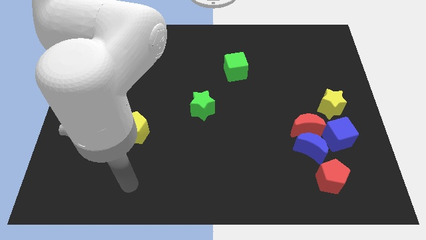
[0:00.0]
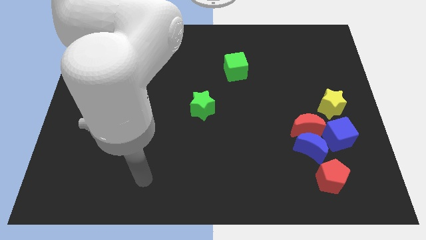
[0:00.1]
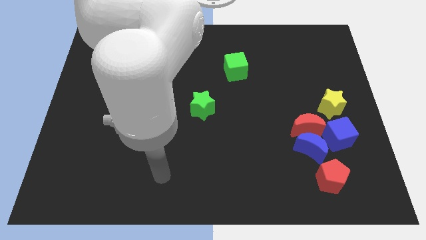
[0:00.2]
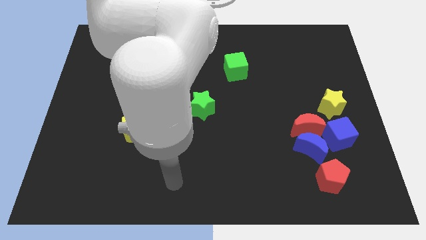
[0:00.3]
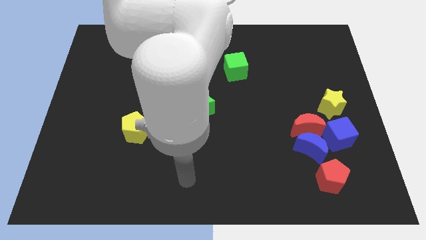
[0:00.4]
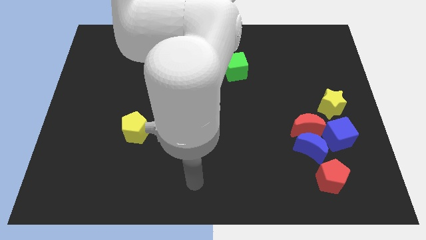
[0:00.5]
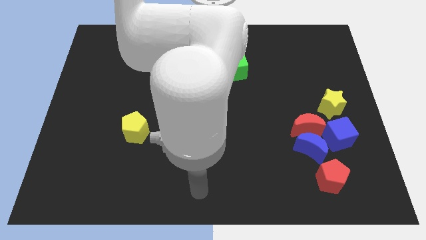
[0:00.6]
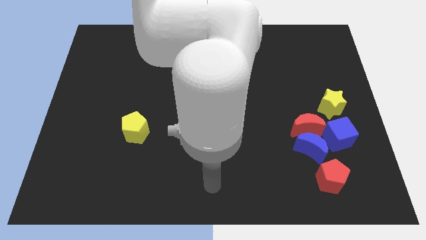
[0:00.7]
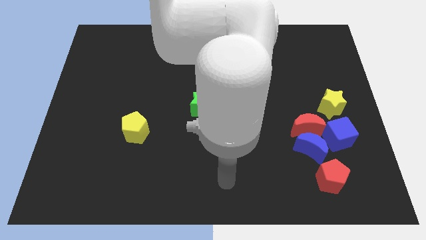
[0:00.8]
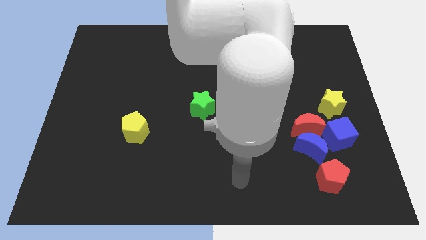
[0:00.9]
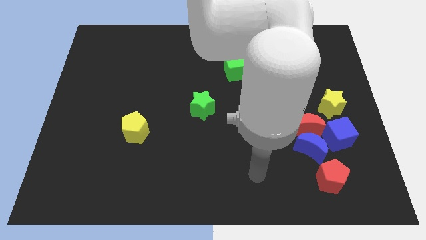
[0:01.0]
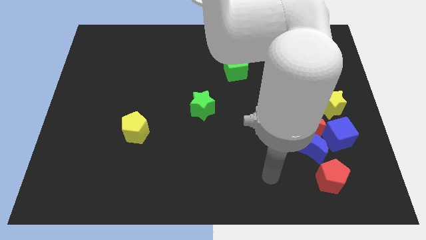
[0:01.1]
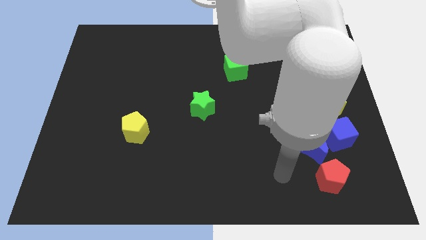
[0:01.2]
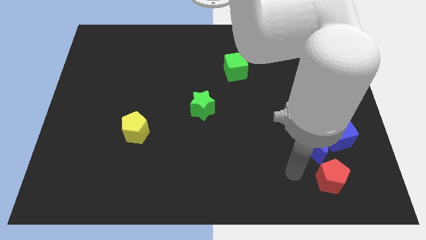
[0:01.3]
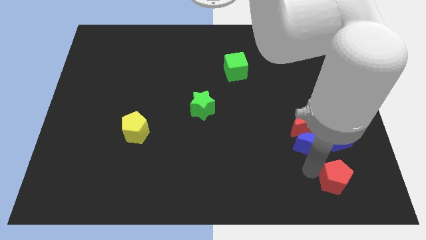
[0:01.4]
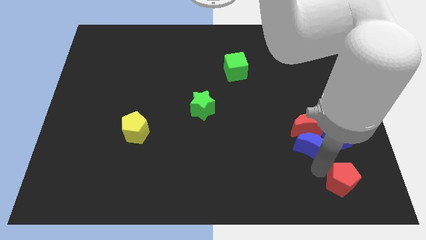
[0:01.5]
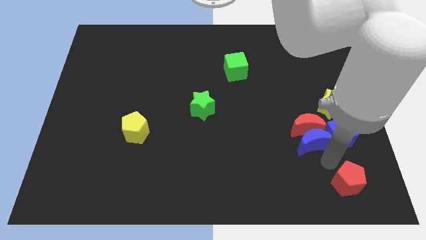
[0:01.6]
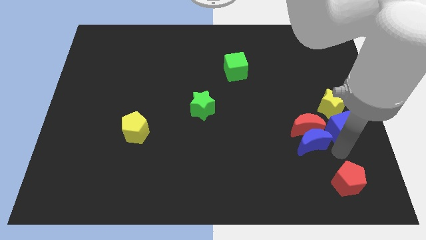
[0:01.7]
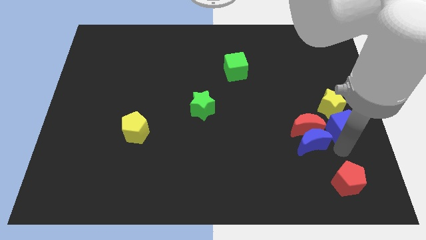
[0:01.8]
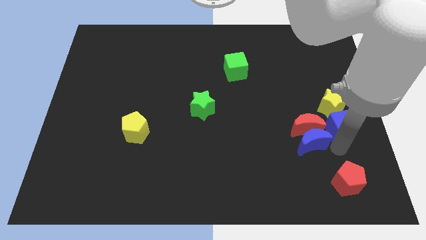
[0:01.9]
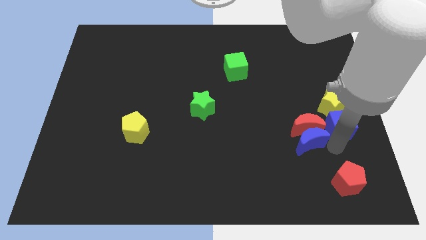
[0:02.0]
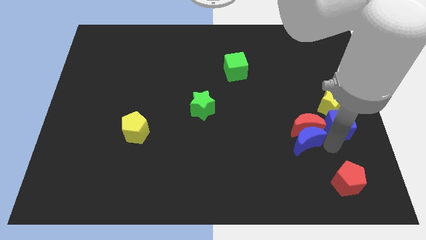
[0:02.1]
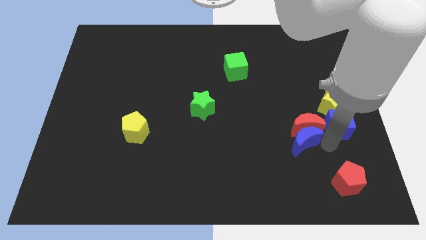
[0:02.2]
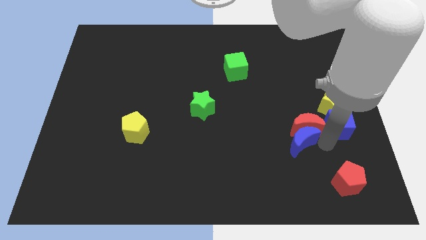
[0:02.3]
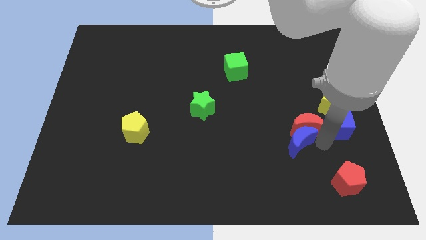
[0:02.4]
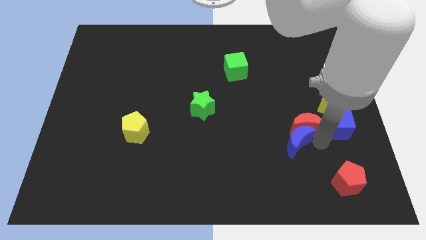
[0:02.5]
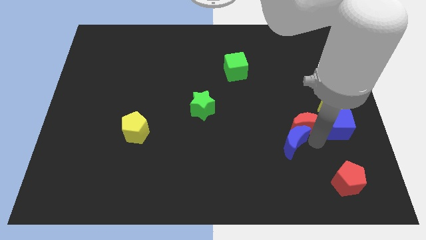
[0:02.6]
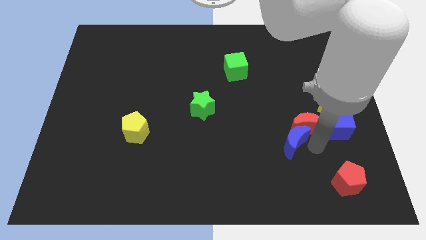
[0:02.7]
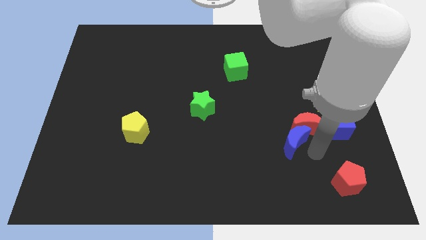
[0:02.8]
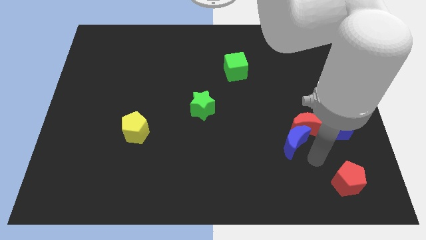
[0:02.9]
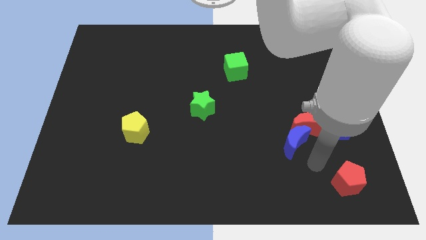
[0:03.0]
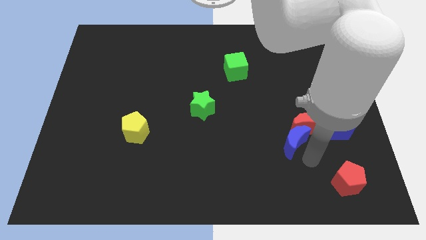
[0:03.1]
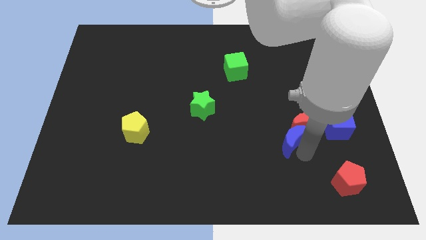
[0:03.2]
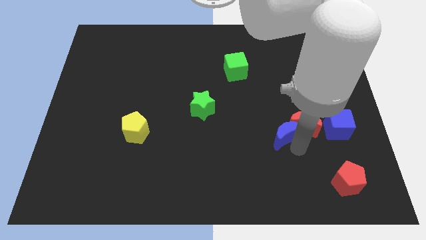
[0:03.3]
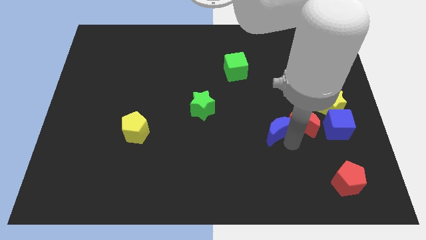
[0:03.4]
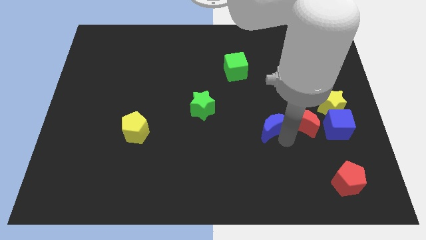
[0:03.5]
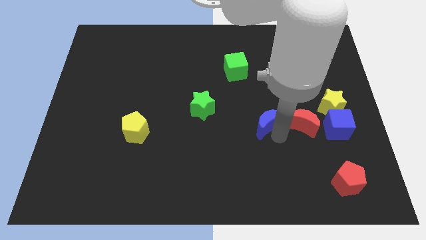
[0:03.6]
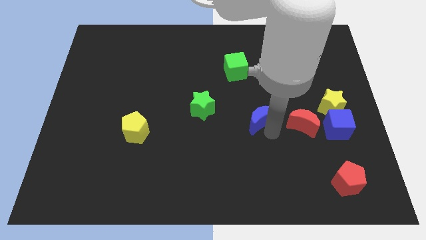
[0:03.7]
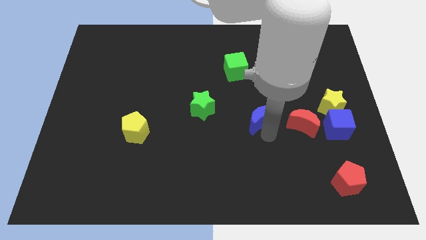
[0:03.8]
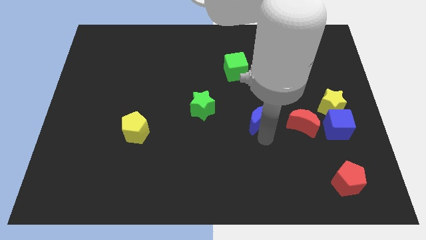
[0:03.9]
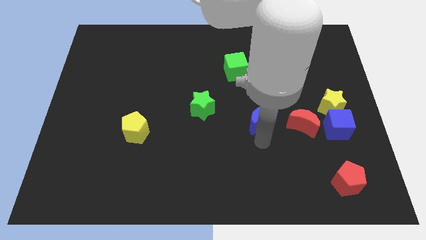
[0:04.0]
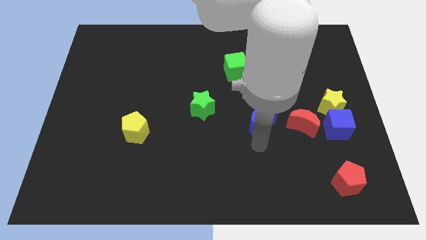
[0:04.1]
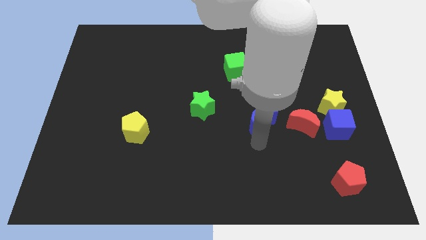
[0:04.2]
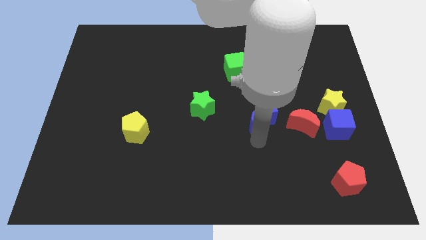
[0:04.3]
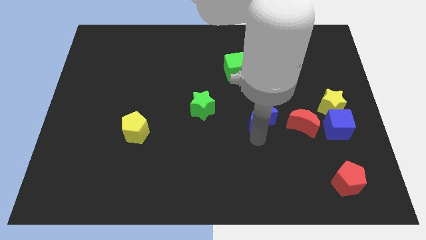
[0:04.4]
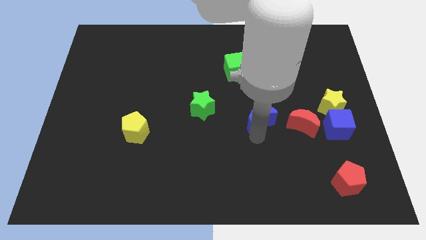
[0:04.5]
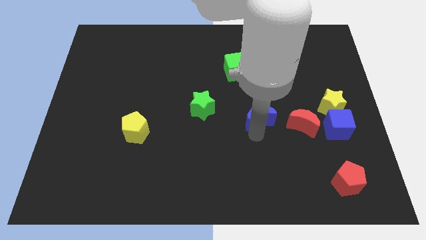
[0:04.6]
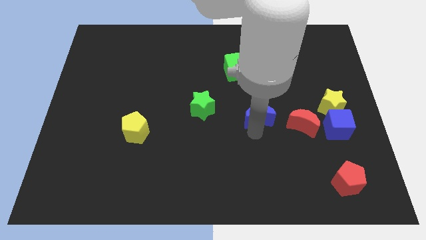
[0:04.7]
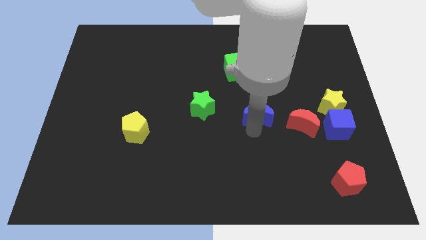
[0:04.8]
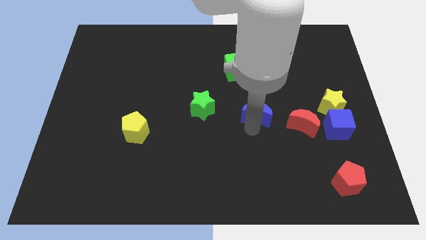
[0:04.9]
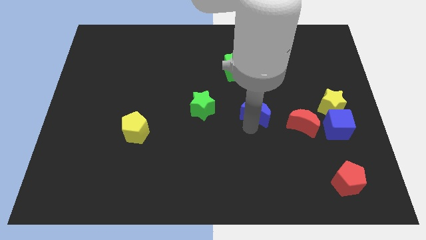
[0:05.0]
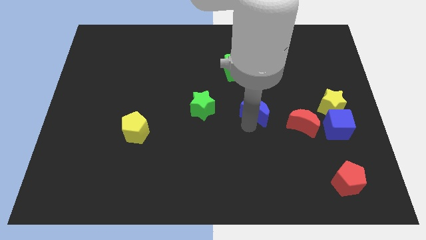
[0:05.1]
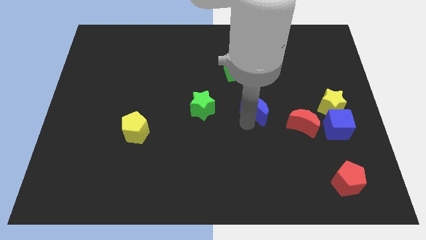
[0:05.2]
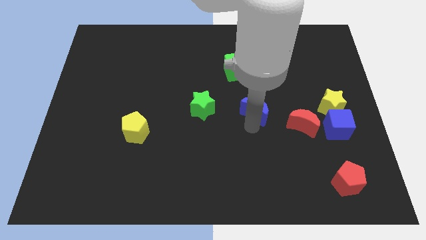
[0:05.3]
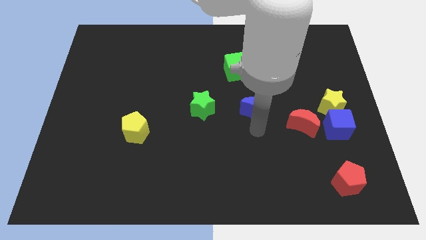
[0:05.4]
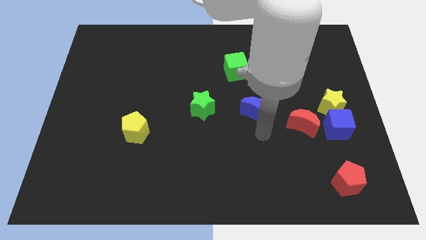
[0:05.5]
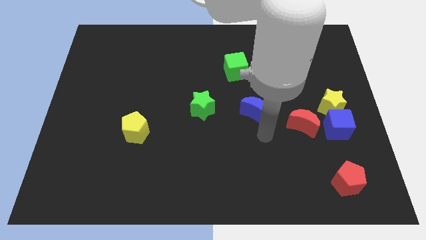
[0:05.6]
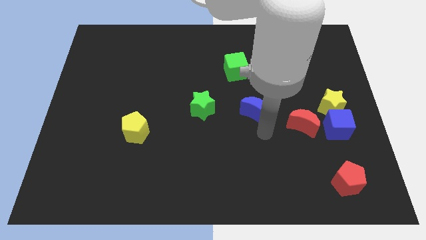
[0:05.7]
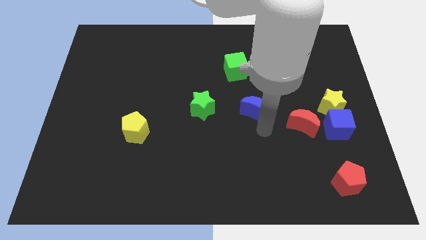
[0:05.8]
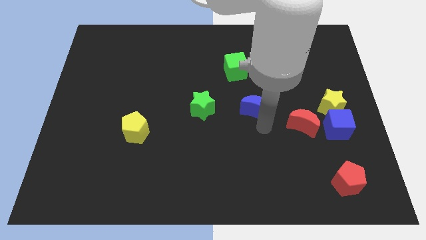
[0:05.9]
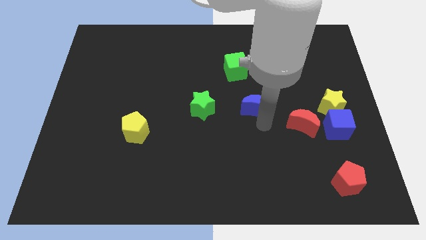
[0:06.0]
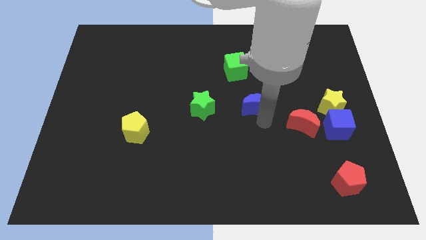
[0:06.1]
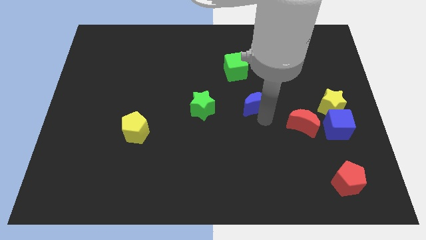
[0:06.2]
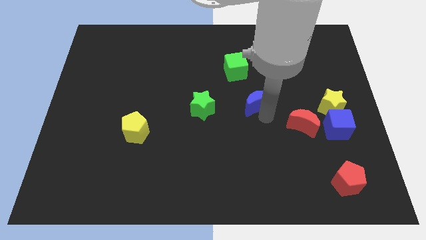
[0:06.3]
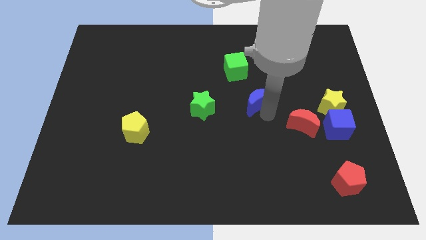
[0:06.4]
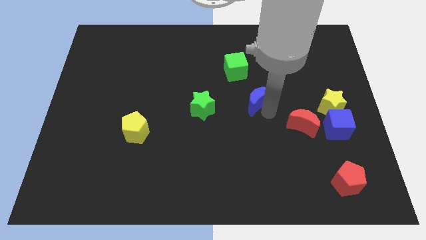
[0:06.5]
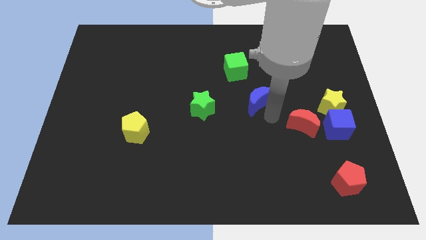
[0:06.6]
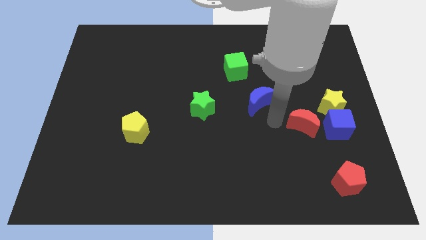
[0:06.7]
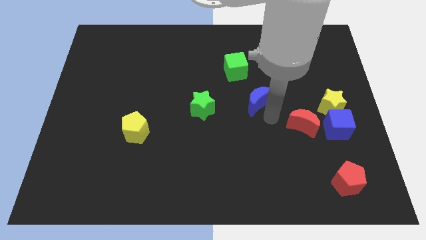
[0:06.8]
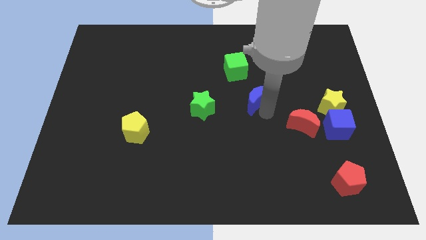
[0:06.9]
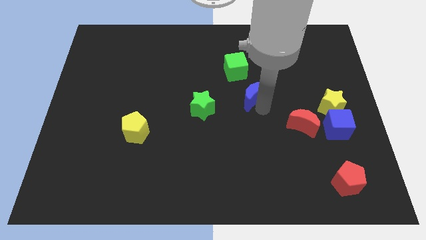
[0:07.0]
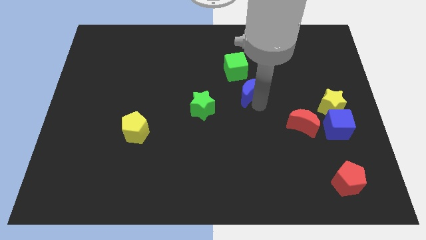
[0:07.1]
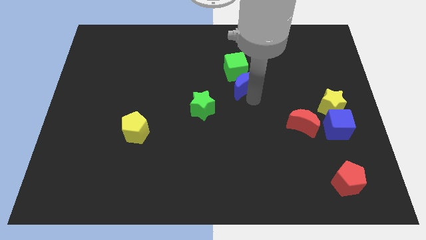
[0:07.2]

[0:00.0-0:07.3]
put the blue moon next to the green cube

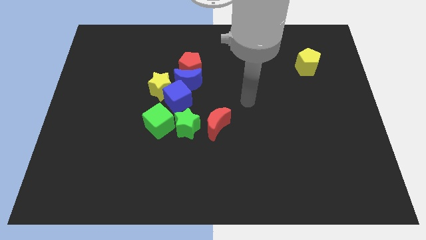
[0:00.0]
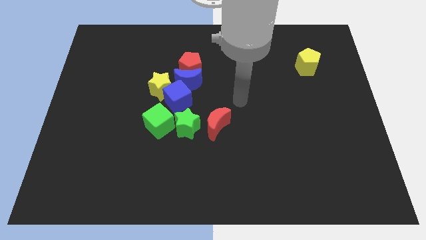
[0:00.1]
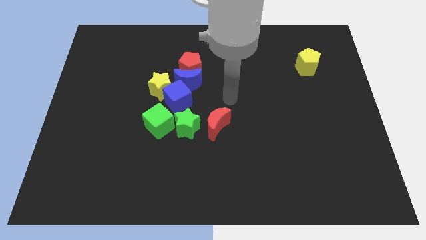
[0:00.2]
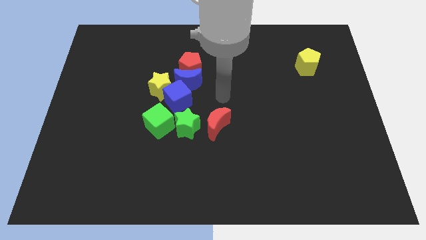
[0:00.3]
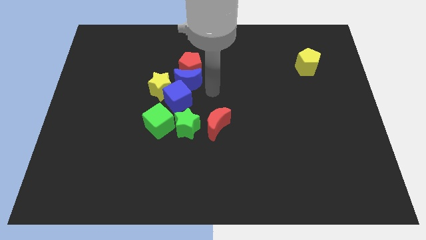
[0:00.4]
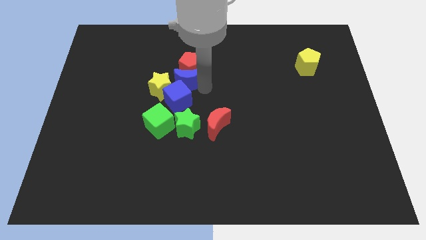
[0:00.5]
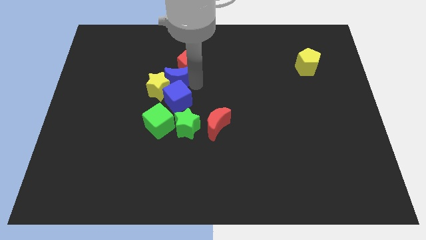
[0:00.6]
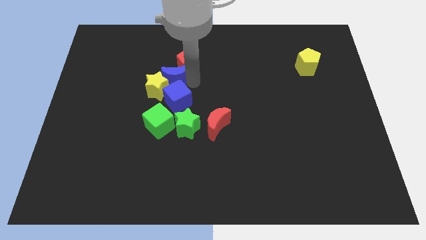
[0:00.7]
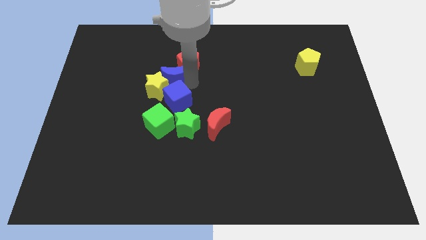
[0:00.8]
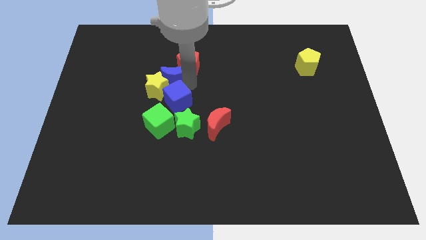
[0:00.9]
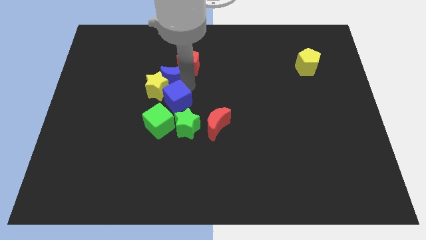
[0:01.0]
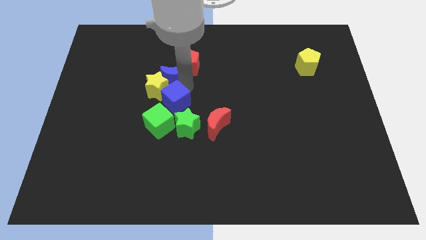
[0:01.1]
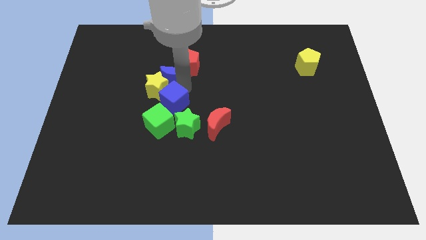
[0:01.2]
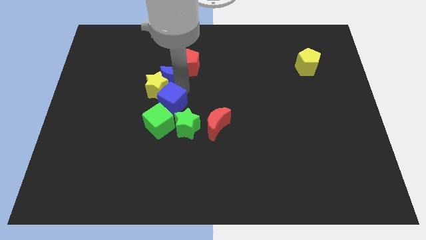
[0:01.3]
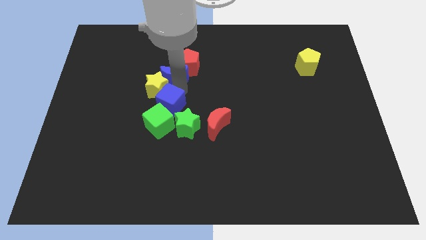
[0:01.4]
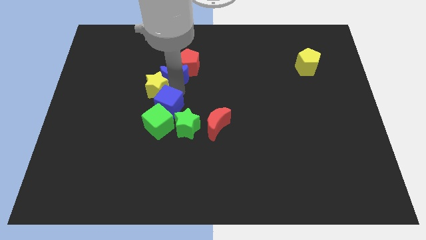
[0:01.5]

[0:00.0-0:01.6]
move the blue cube towards the green cube
